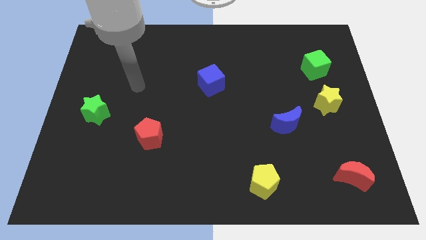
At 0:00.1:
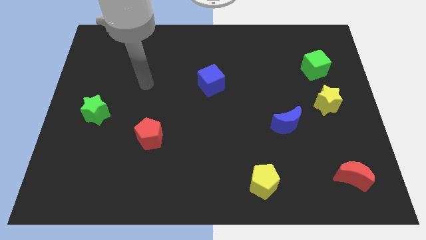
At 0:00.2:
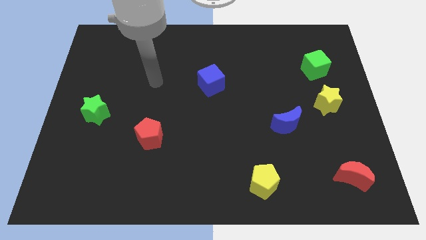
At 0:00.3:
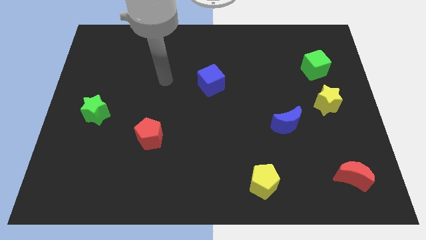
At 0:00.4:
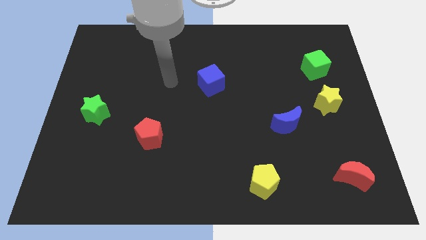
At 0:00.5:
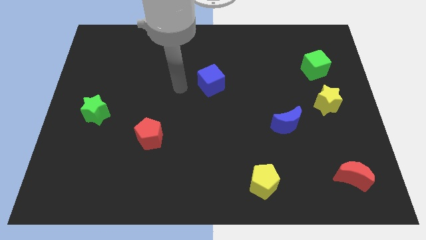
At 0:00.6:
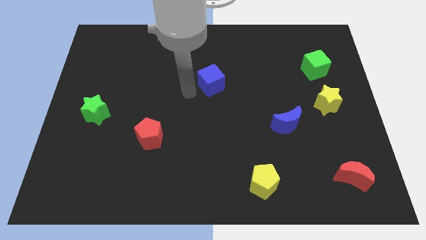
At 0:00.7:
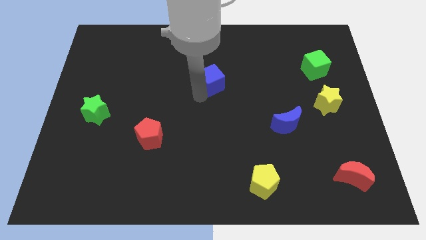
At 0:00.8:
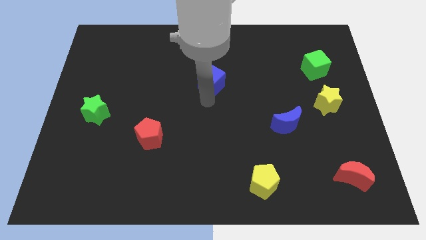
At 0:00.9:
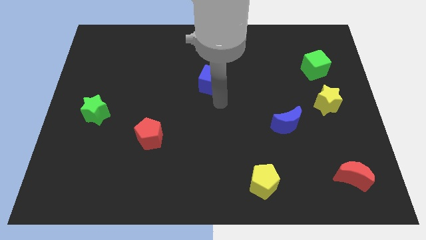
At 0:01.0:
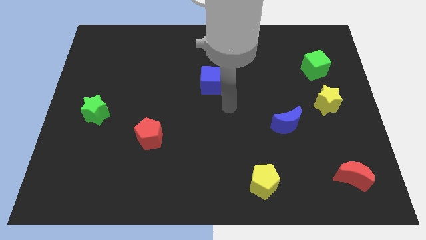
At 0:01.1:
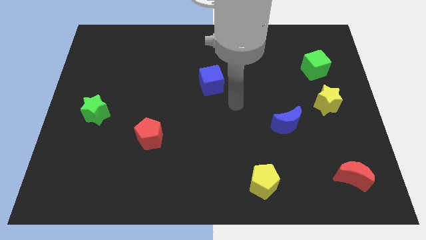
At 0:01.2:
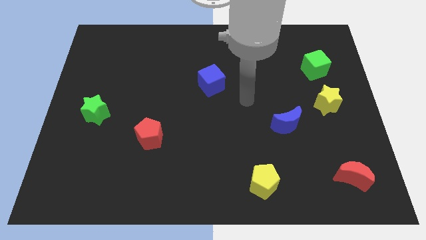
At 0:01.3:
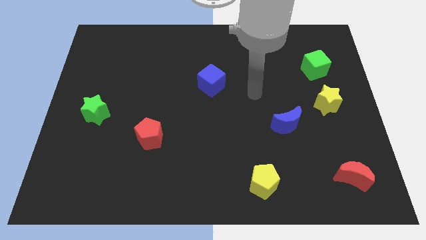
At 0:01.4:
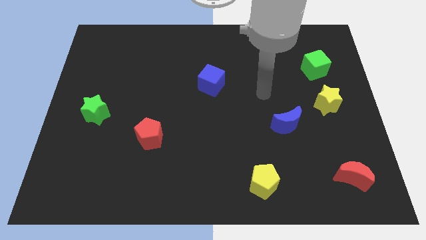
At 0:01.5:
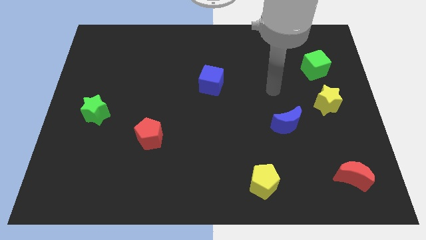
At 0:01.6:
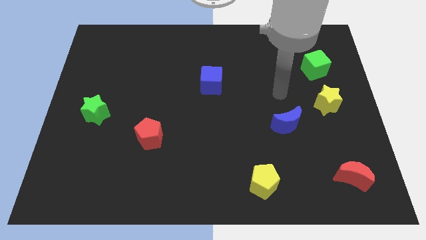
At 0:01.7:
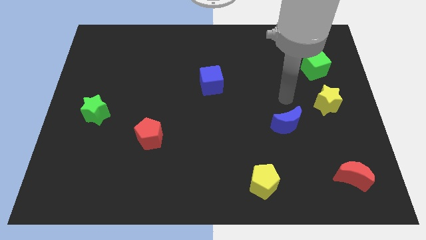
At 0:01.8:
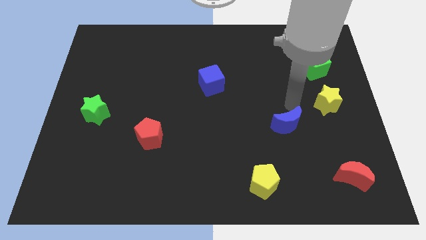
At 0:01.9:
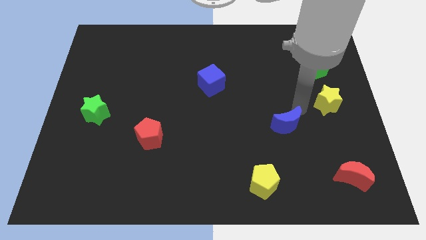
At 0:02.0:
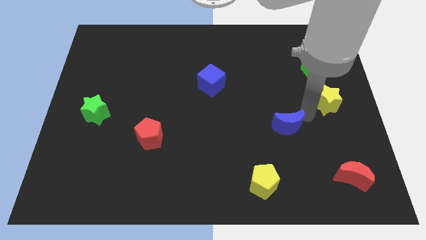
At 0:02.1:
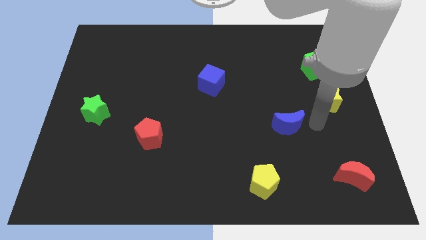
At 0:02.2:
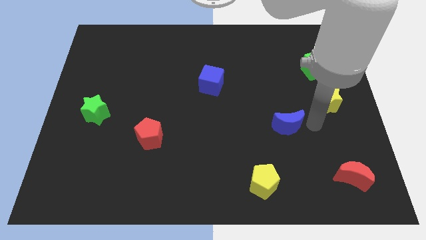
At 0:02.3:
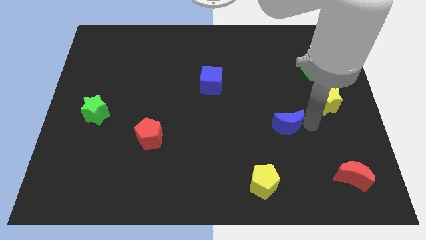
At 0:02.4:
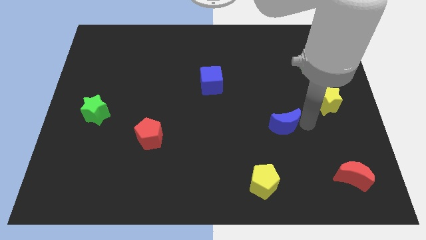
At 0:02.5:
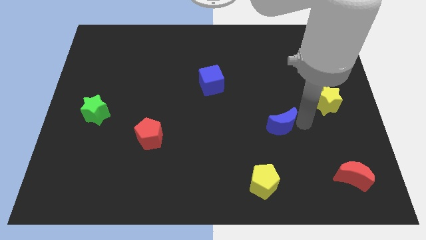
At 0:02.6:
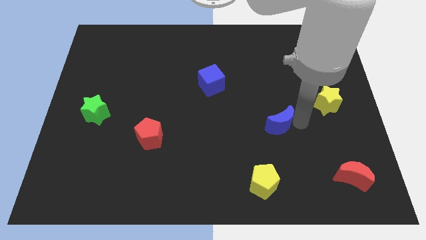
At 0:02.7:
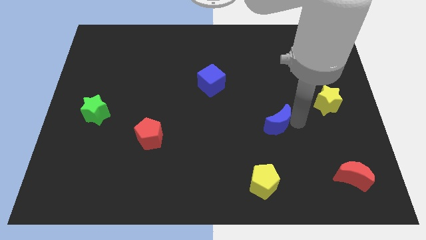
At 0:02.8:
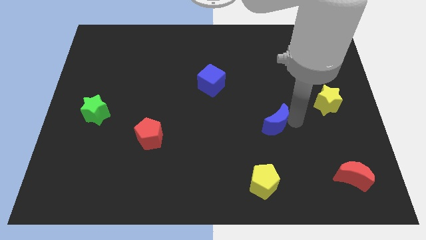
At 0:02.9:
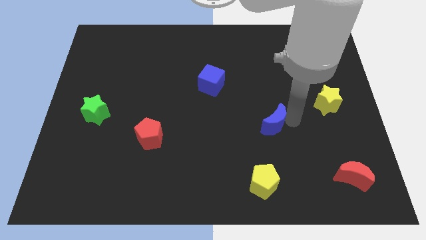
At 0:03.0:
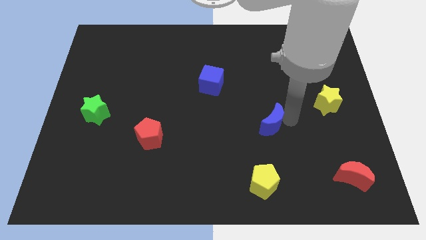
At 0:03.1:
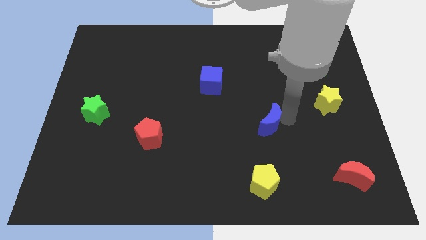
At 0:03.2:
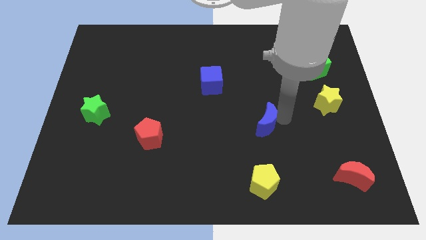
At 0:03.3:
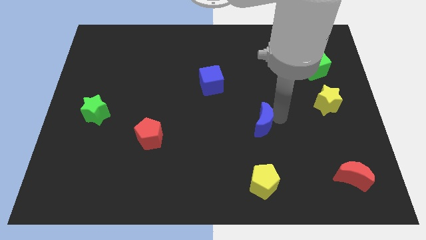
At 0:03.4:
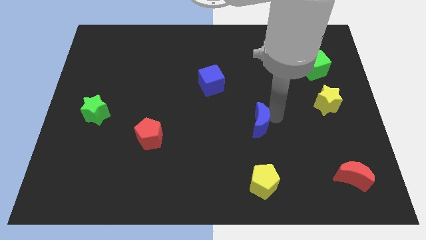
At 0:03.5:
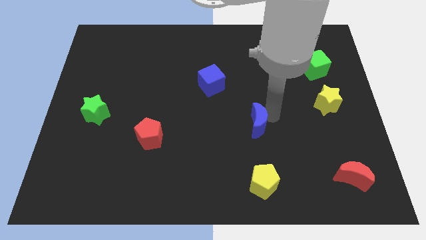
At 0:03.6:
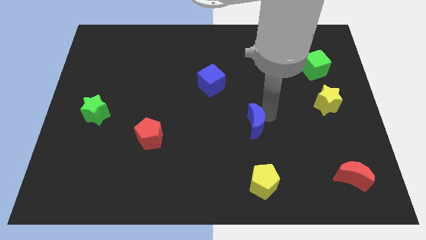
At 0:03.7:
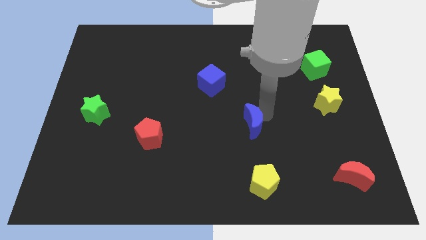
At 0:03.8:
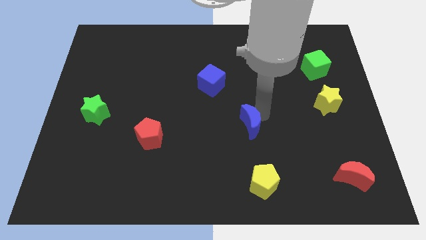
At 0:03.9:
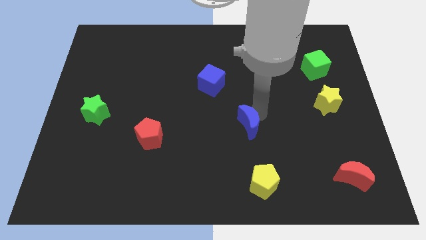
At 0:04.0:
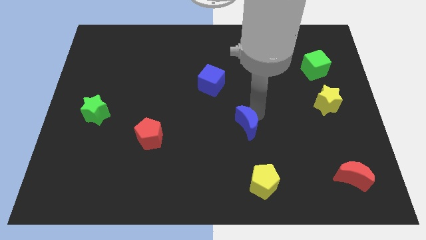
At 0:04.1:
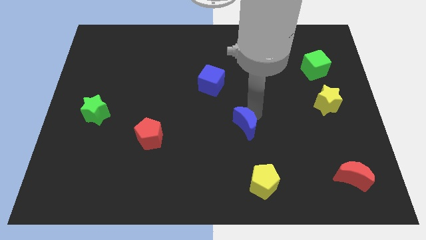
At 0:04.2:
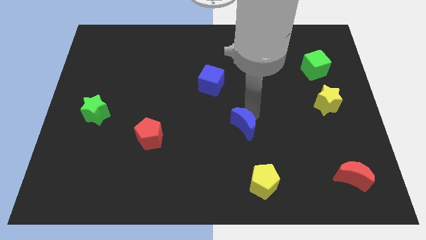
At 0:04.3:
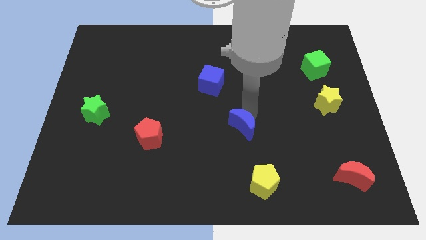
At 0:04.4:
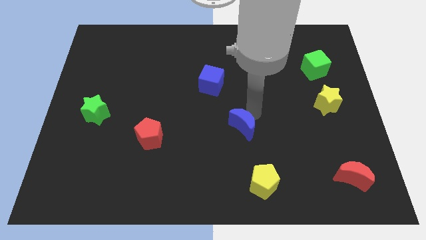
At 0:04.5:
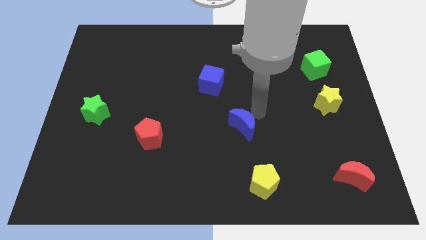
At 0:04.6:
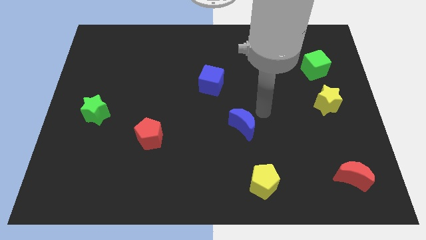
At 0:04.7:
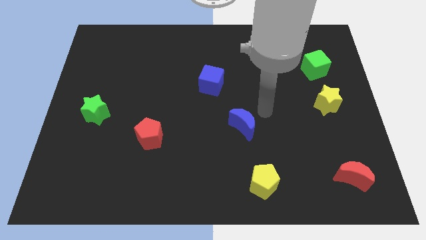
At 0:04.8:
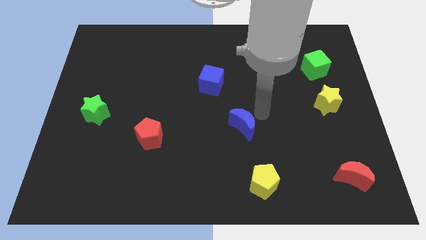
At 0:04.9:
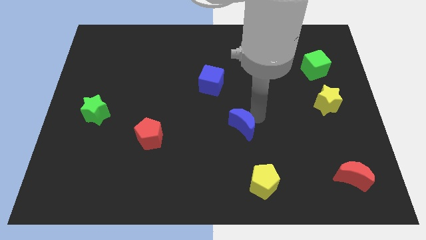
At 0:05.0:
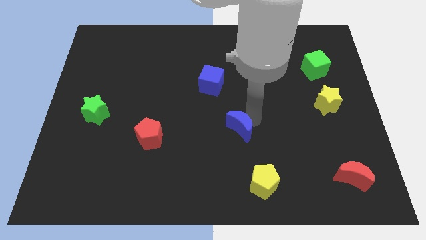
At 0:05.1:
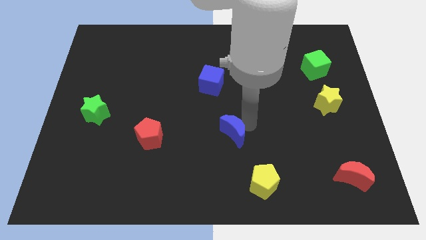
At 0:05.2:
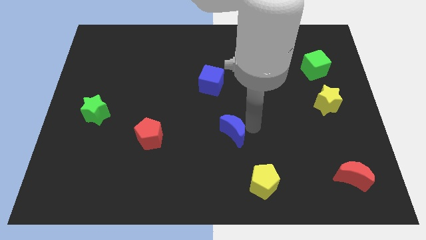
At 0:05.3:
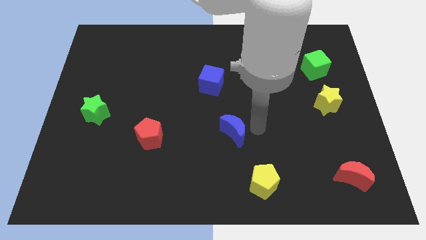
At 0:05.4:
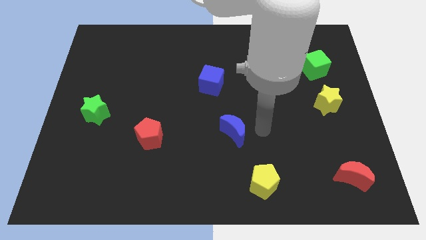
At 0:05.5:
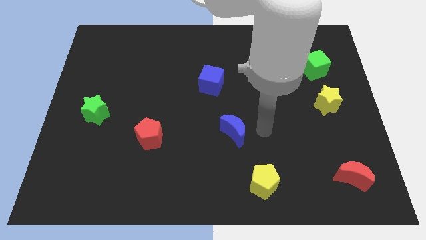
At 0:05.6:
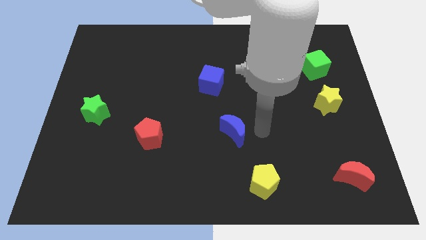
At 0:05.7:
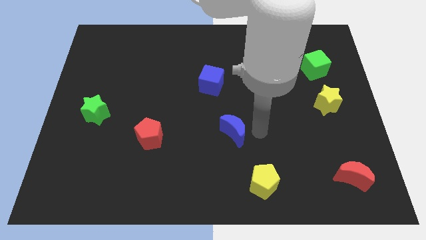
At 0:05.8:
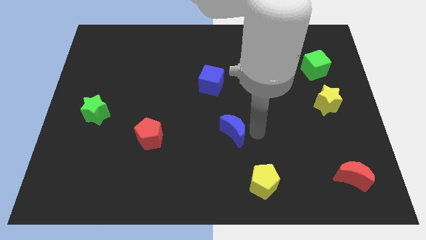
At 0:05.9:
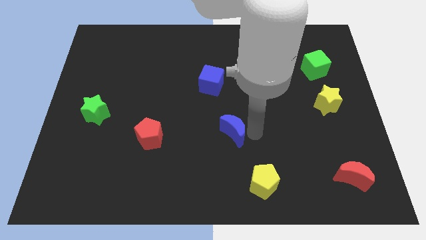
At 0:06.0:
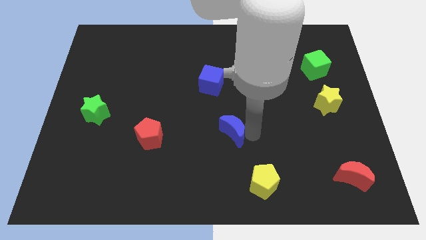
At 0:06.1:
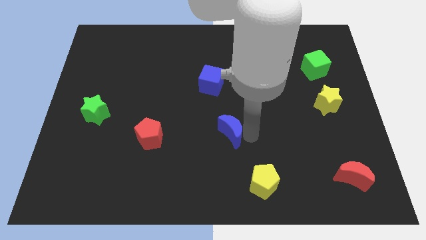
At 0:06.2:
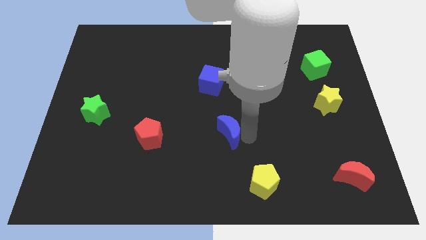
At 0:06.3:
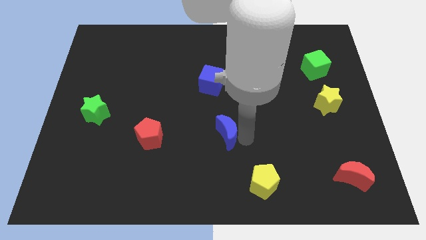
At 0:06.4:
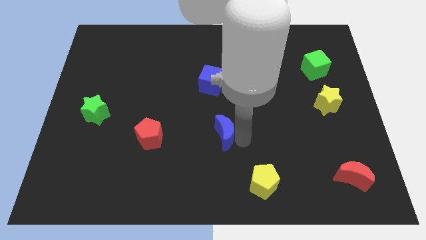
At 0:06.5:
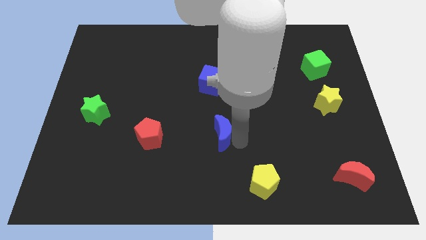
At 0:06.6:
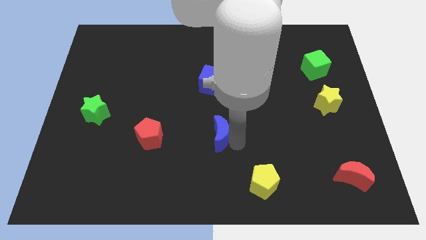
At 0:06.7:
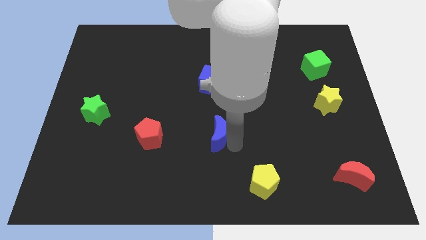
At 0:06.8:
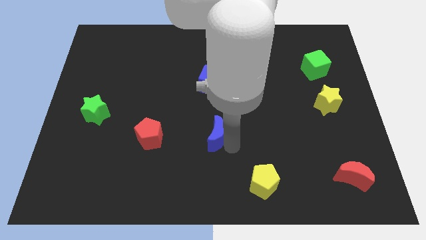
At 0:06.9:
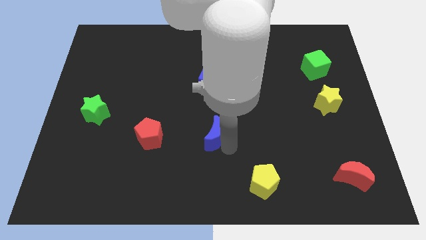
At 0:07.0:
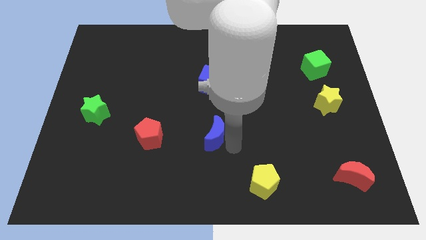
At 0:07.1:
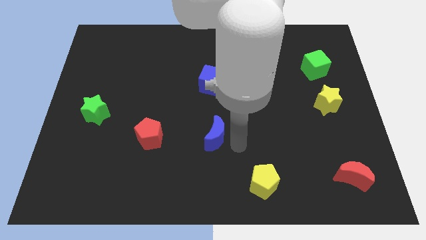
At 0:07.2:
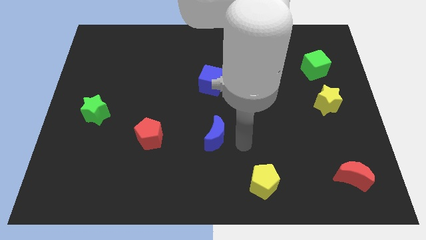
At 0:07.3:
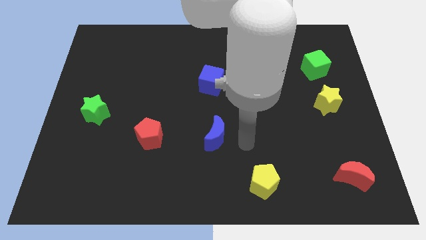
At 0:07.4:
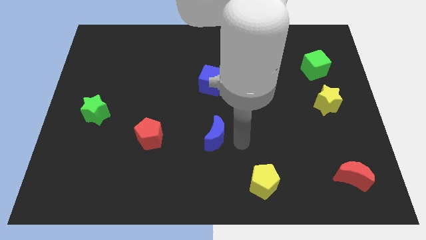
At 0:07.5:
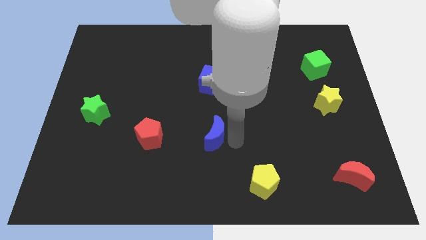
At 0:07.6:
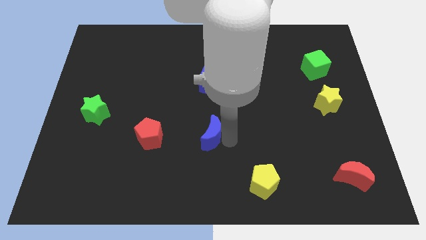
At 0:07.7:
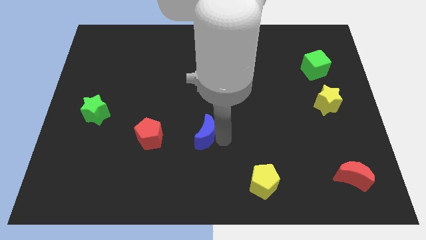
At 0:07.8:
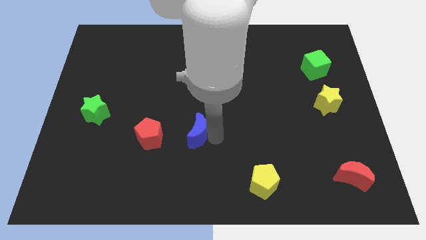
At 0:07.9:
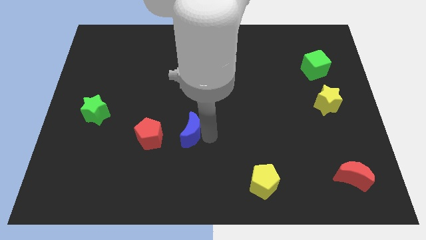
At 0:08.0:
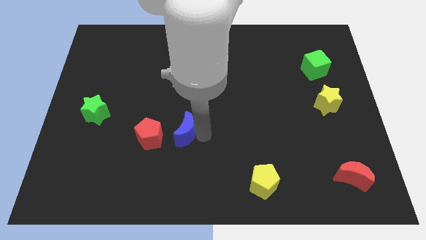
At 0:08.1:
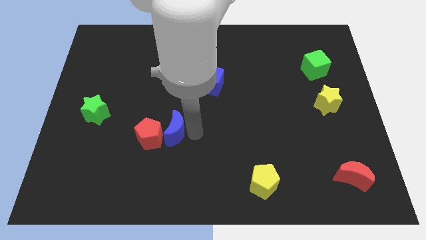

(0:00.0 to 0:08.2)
put the blue moon to the red pentagon
